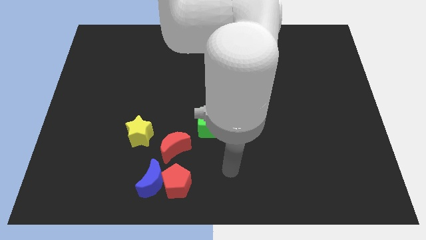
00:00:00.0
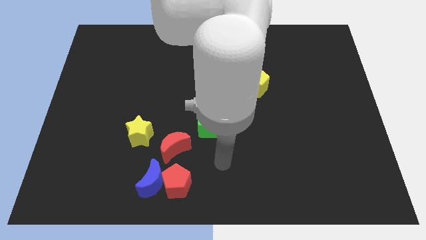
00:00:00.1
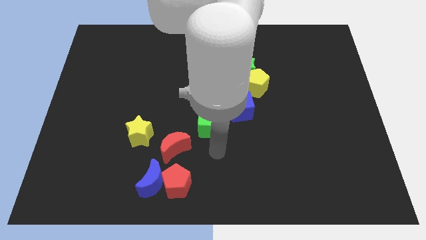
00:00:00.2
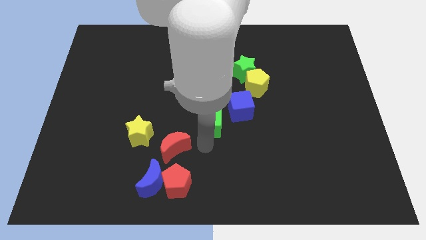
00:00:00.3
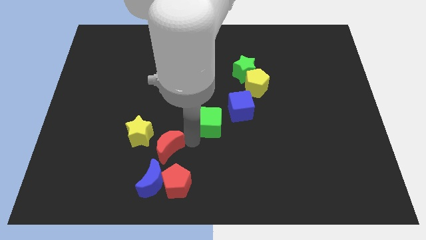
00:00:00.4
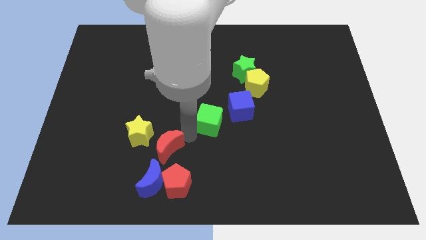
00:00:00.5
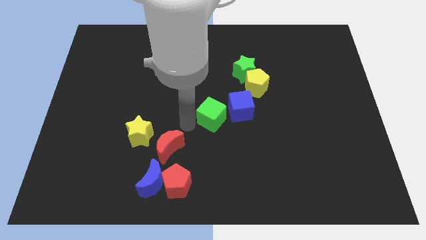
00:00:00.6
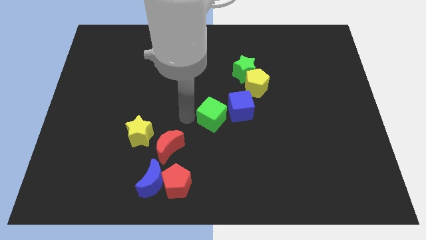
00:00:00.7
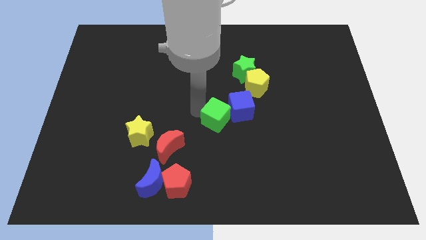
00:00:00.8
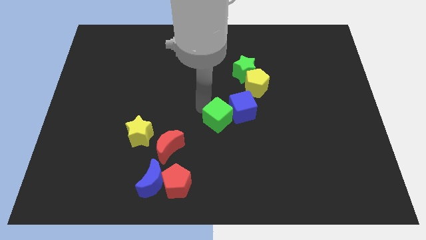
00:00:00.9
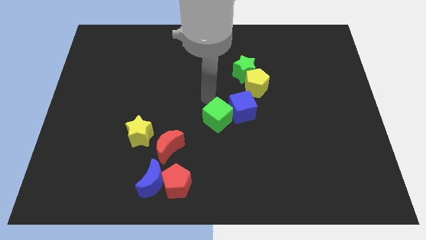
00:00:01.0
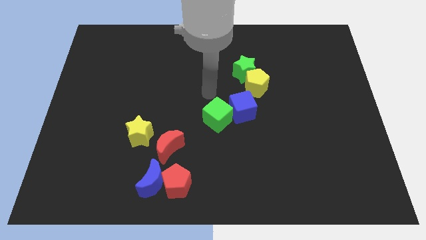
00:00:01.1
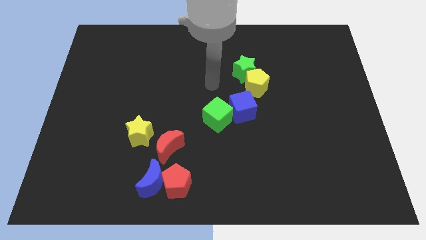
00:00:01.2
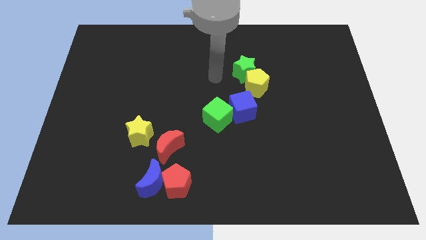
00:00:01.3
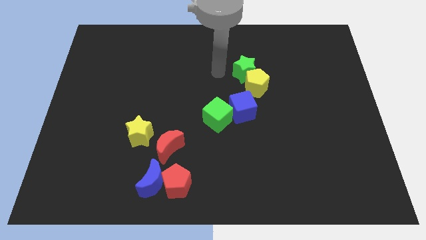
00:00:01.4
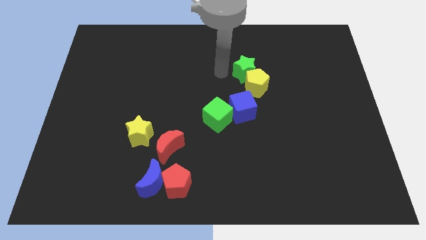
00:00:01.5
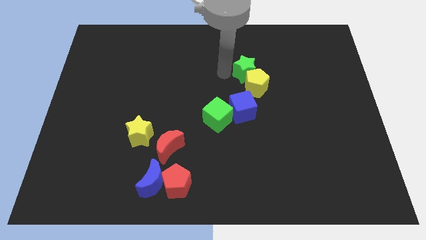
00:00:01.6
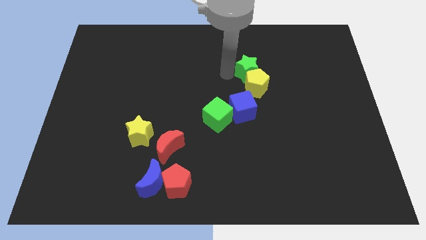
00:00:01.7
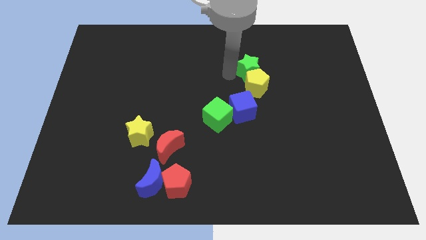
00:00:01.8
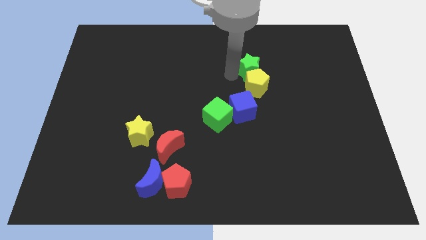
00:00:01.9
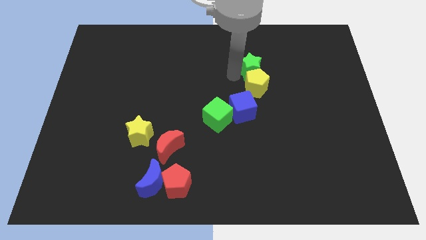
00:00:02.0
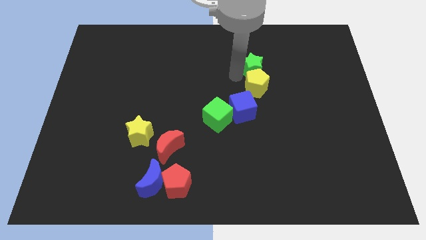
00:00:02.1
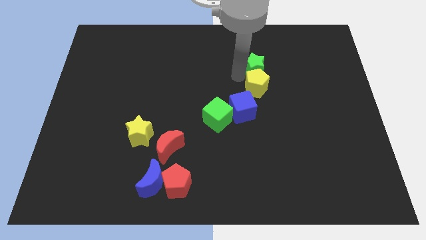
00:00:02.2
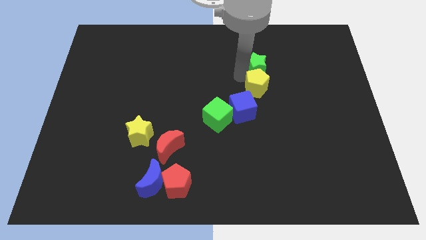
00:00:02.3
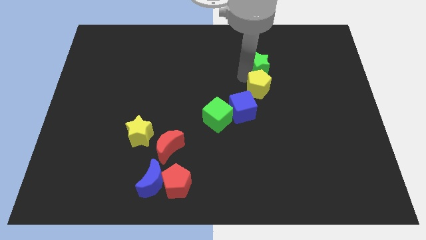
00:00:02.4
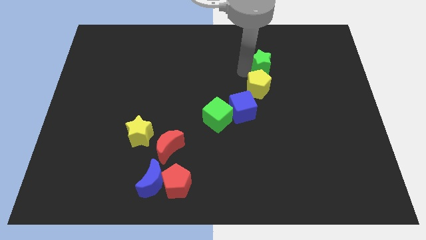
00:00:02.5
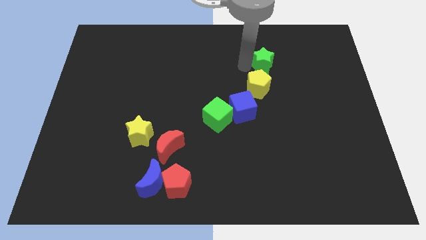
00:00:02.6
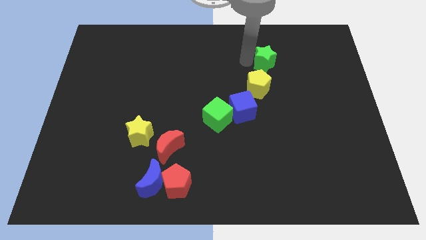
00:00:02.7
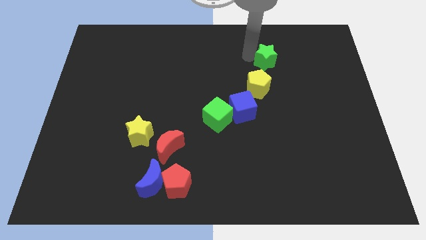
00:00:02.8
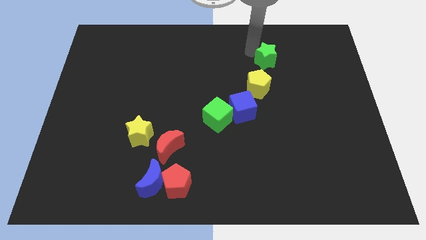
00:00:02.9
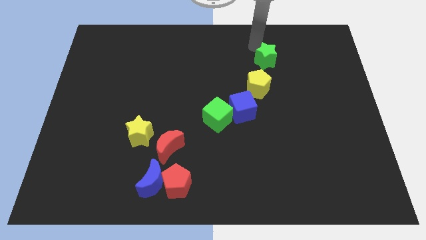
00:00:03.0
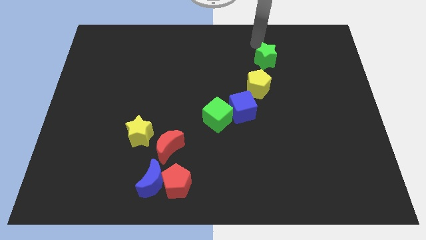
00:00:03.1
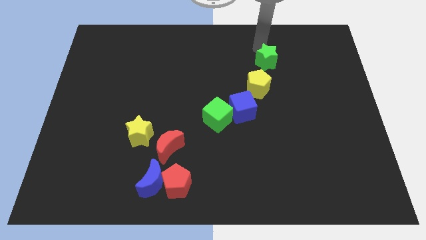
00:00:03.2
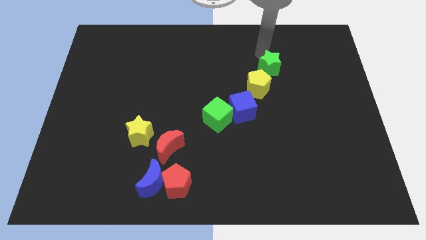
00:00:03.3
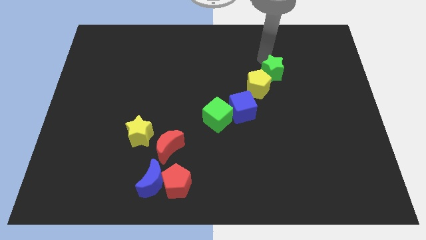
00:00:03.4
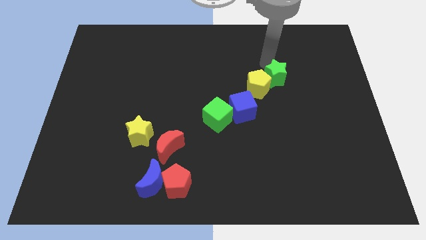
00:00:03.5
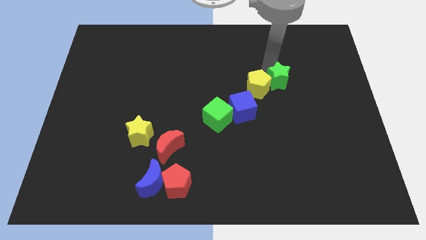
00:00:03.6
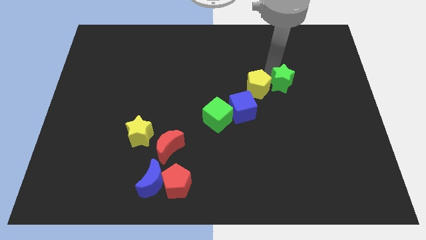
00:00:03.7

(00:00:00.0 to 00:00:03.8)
slide the green star slightly down and then right

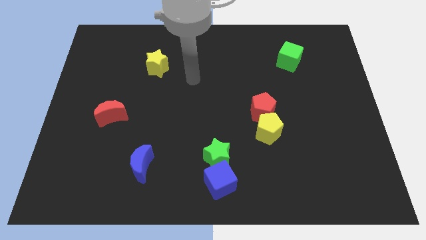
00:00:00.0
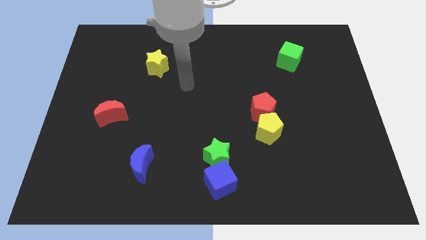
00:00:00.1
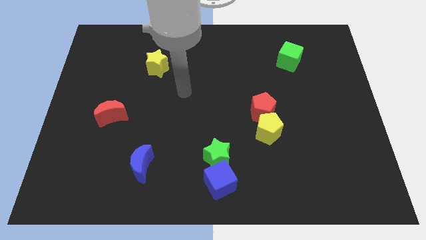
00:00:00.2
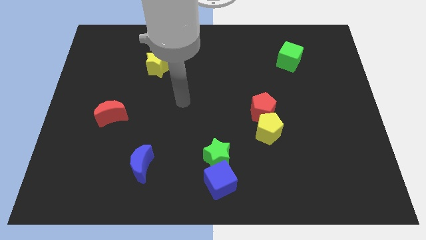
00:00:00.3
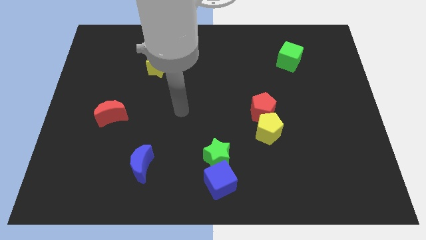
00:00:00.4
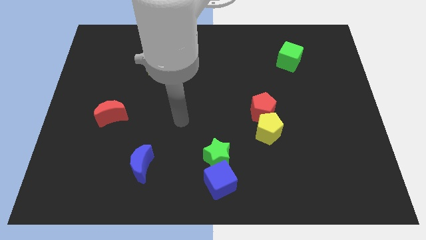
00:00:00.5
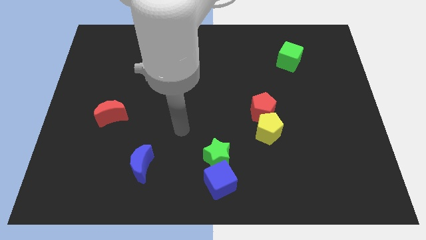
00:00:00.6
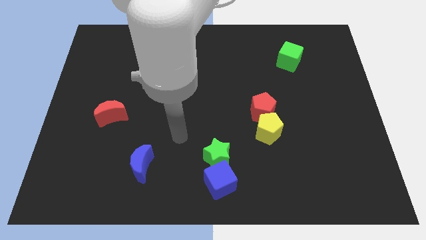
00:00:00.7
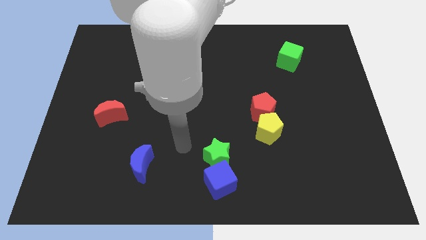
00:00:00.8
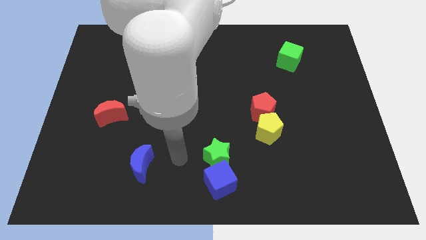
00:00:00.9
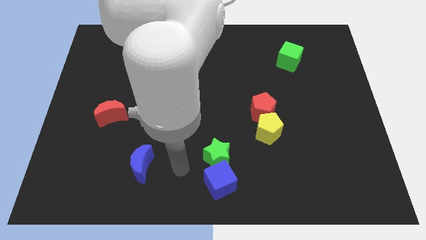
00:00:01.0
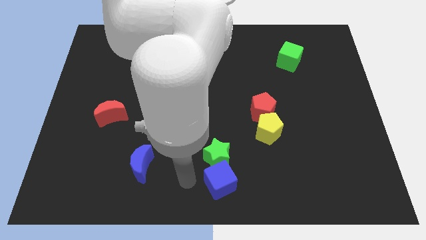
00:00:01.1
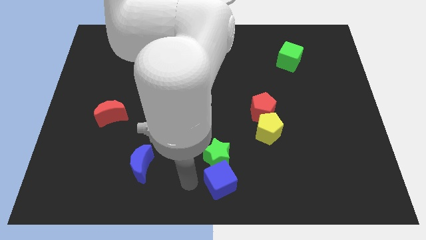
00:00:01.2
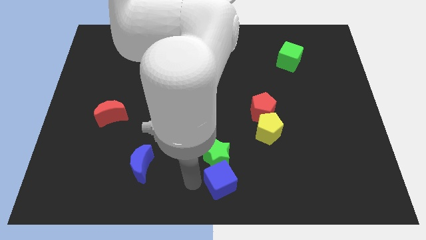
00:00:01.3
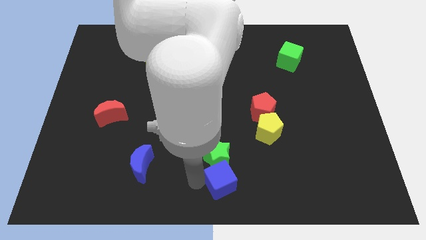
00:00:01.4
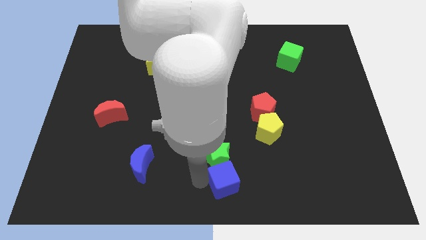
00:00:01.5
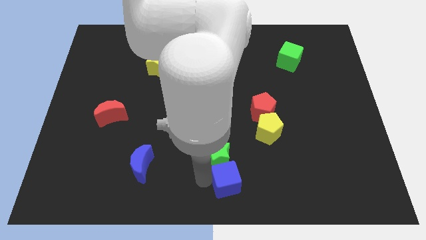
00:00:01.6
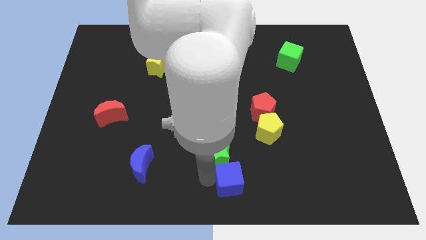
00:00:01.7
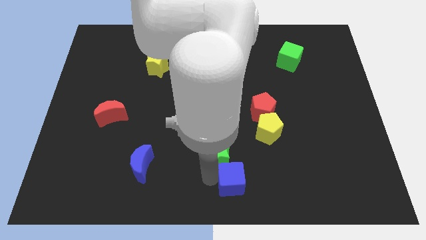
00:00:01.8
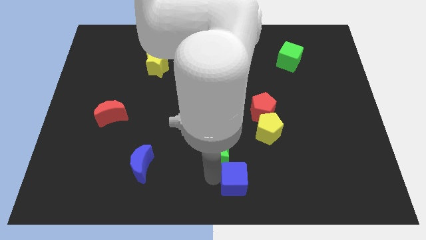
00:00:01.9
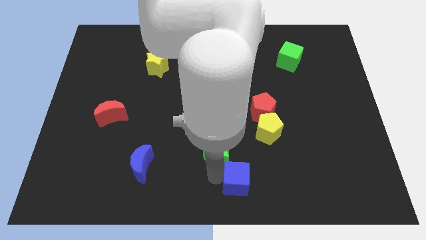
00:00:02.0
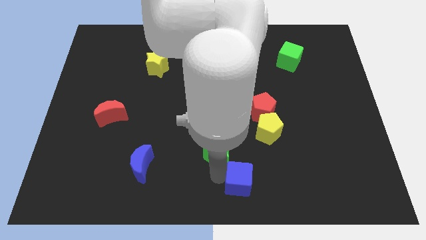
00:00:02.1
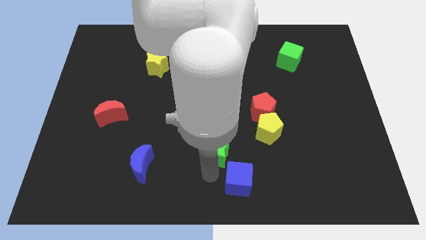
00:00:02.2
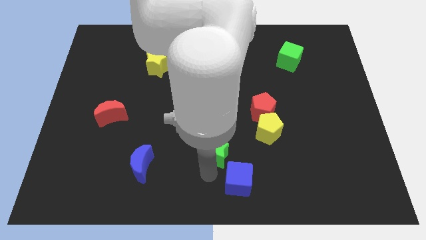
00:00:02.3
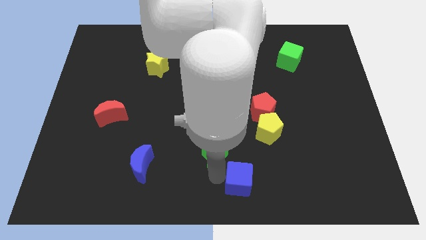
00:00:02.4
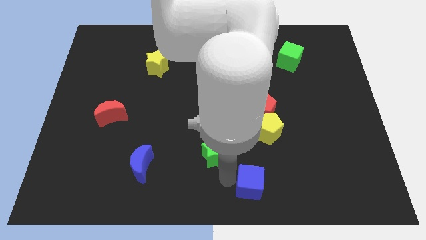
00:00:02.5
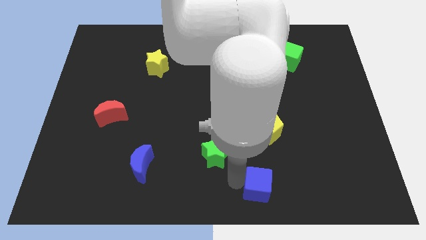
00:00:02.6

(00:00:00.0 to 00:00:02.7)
slightly push the blue cube right

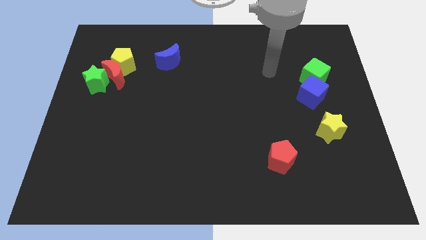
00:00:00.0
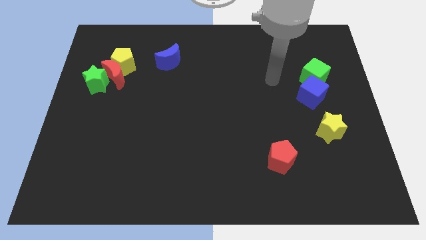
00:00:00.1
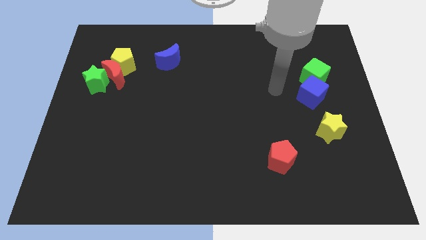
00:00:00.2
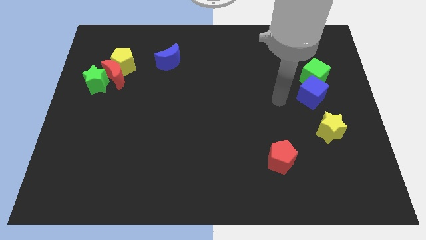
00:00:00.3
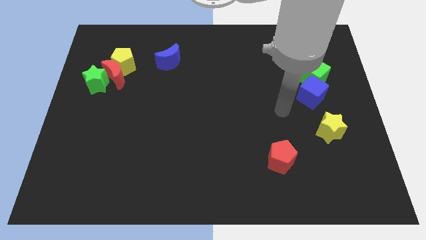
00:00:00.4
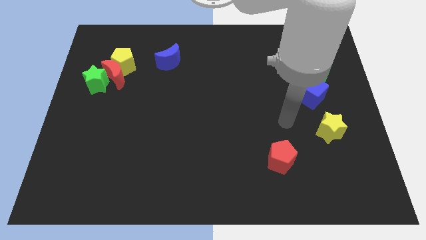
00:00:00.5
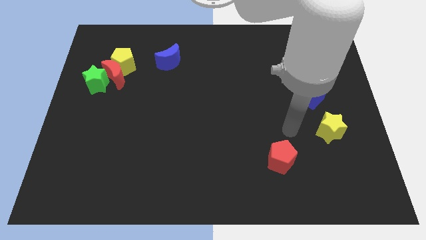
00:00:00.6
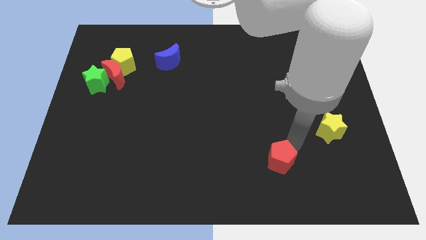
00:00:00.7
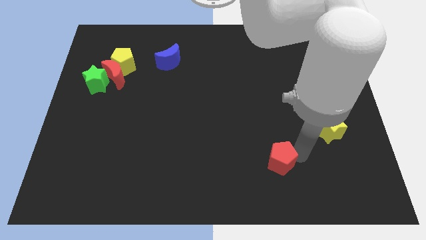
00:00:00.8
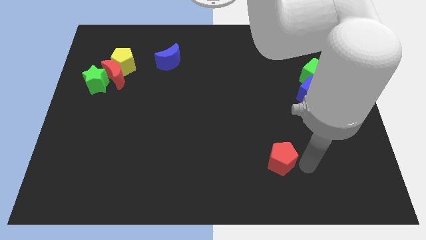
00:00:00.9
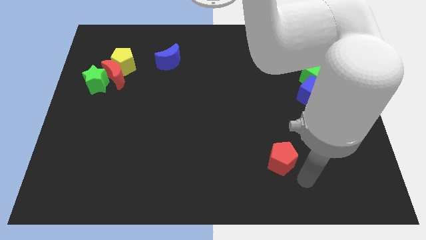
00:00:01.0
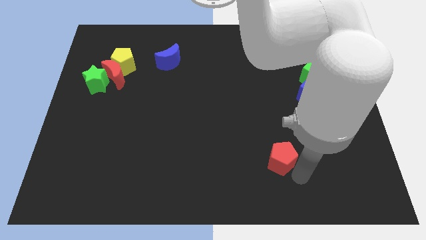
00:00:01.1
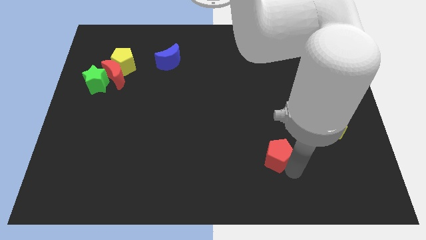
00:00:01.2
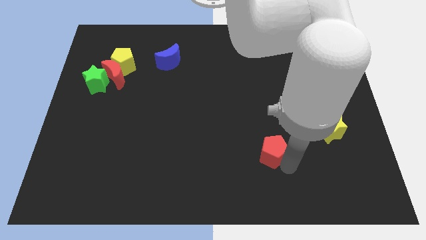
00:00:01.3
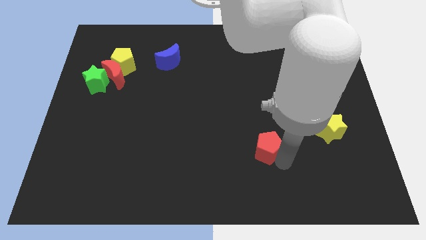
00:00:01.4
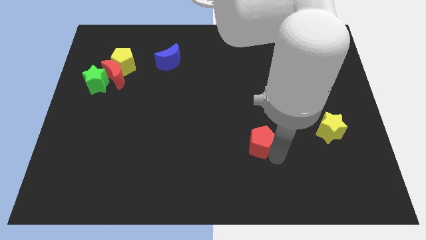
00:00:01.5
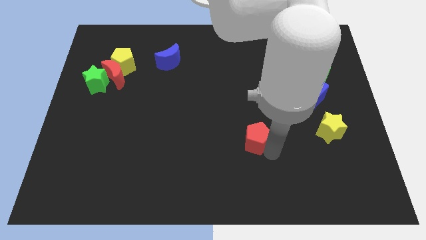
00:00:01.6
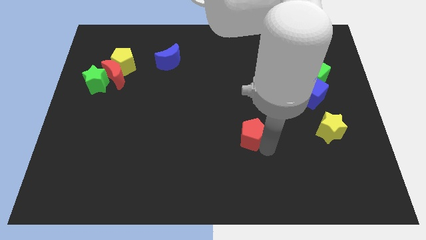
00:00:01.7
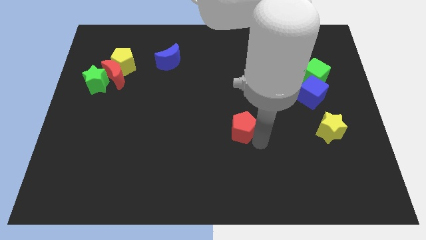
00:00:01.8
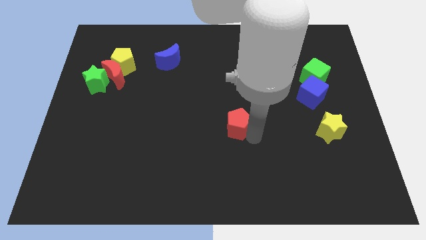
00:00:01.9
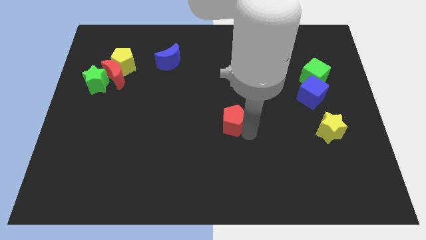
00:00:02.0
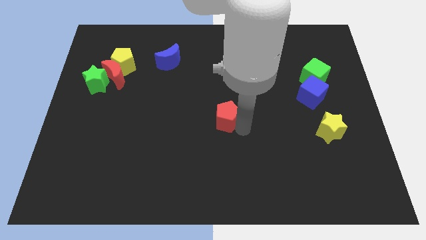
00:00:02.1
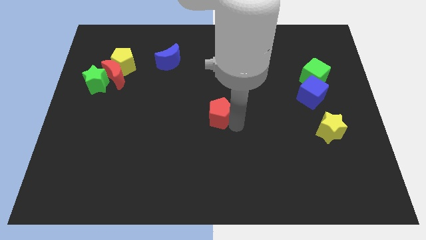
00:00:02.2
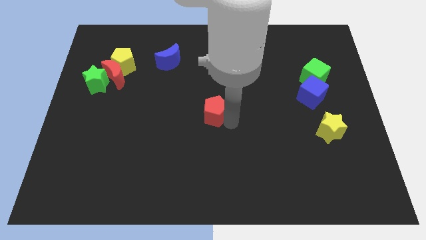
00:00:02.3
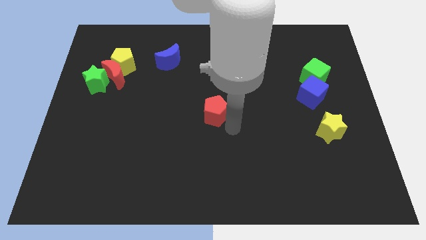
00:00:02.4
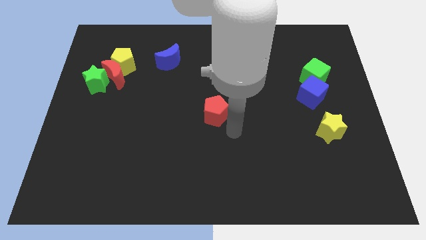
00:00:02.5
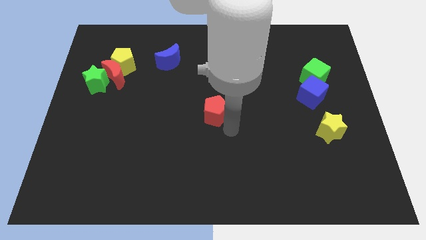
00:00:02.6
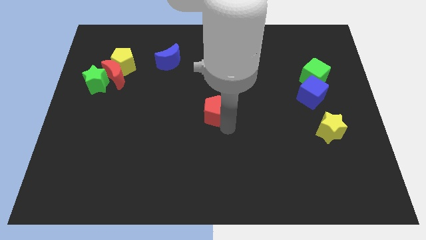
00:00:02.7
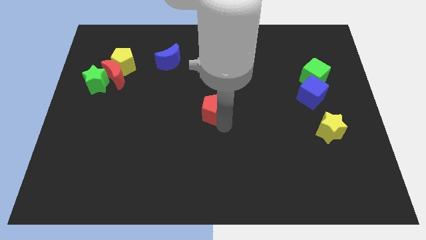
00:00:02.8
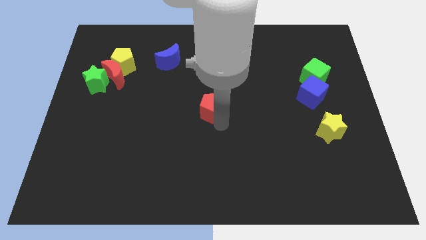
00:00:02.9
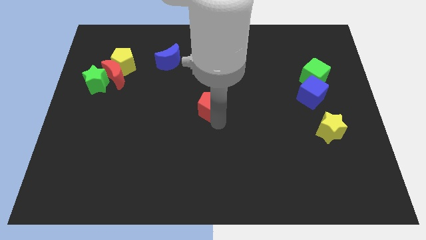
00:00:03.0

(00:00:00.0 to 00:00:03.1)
slide the red pentagon up and then left
